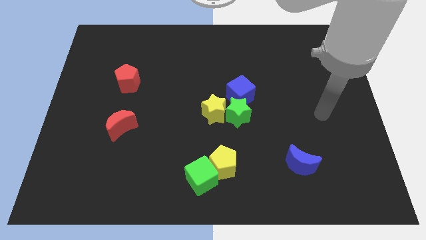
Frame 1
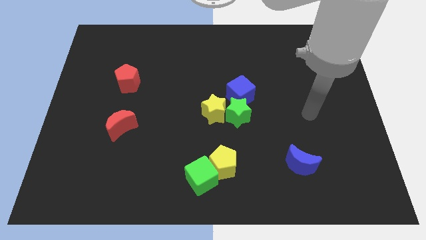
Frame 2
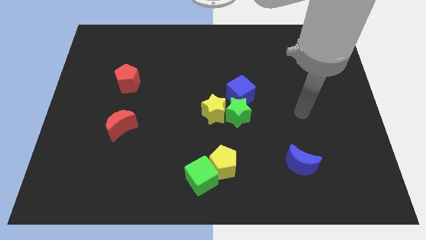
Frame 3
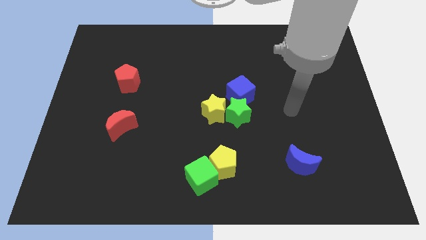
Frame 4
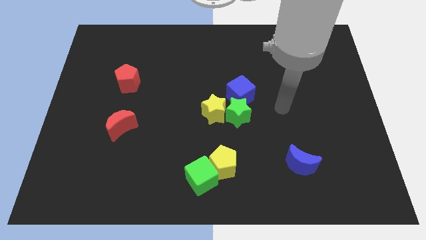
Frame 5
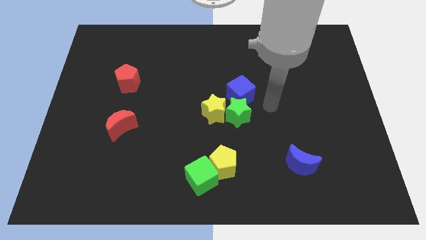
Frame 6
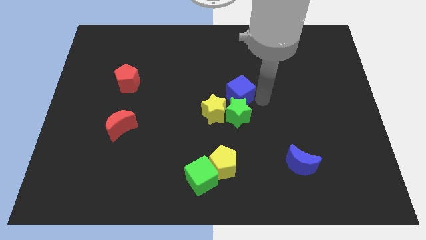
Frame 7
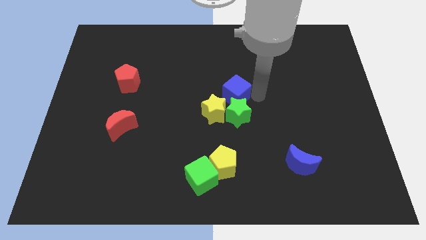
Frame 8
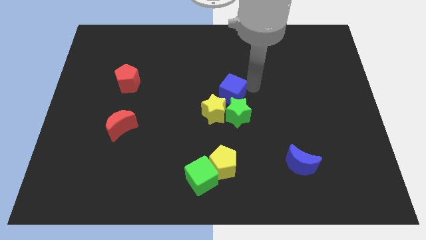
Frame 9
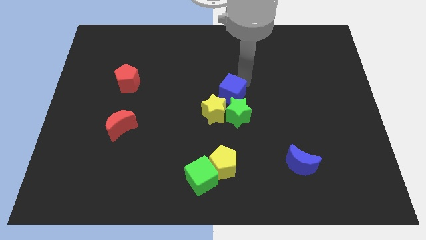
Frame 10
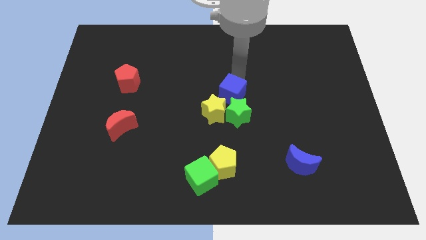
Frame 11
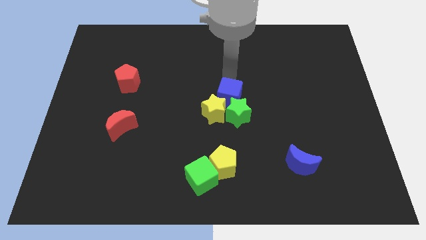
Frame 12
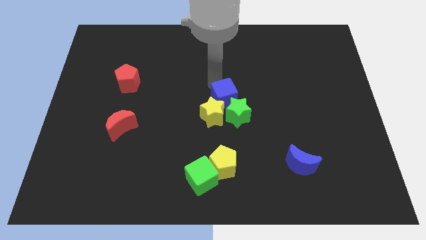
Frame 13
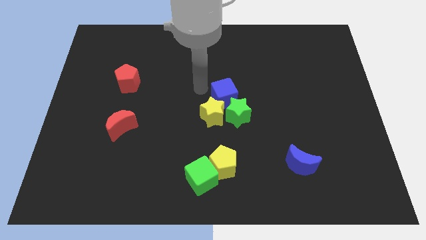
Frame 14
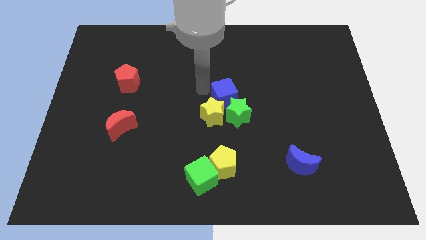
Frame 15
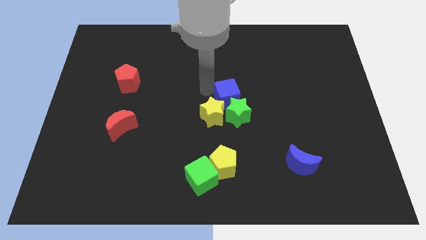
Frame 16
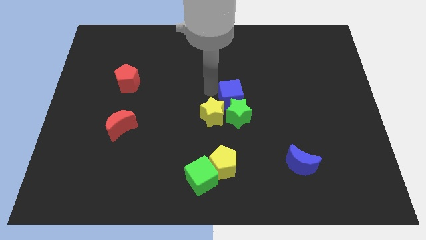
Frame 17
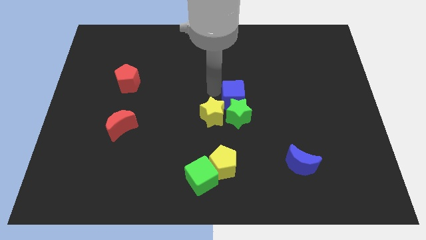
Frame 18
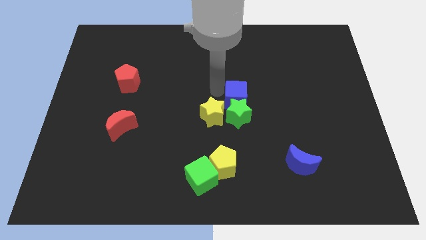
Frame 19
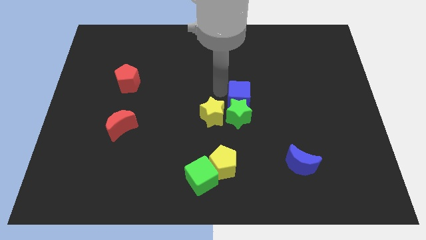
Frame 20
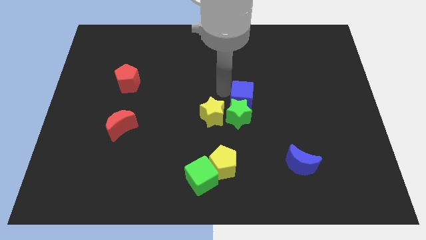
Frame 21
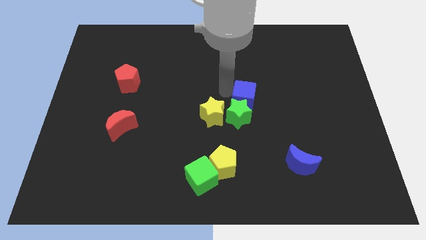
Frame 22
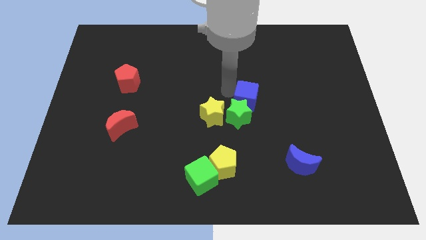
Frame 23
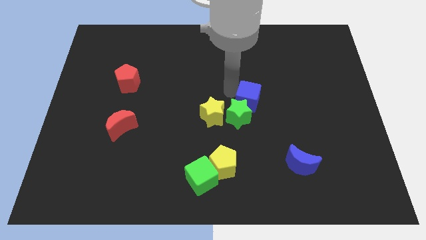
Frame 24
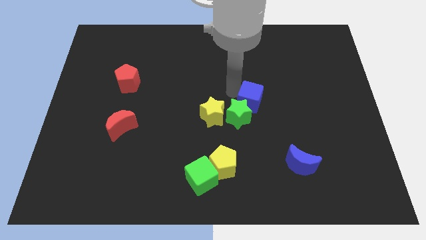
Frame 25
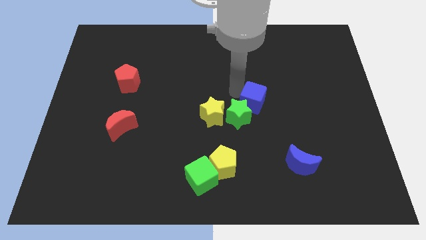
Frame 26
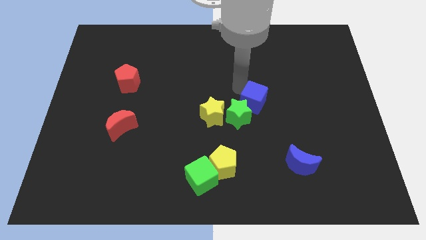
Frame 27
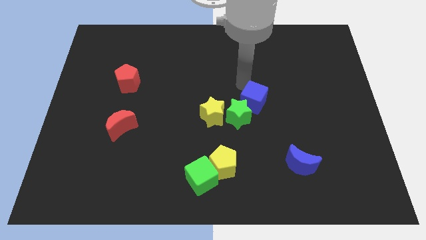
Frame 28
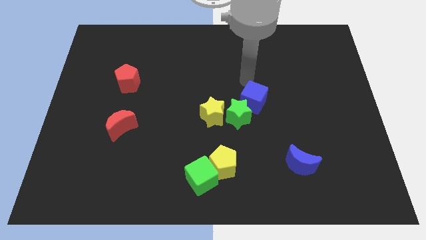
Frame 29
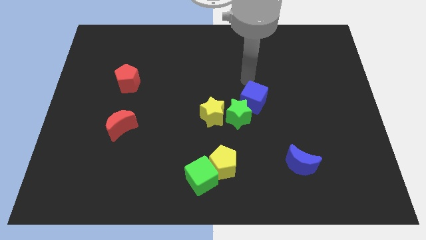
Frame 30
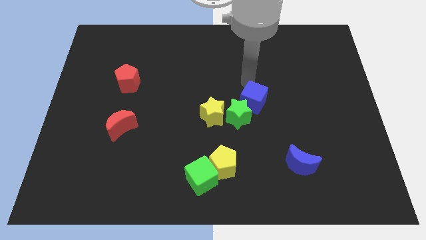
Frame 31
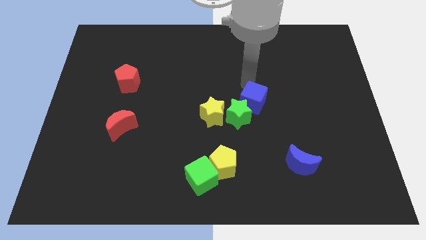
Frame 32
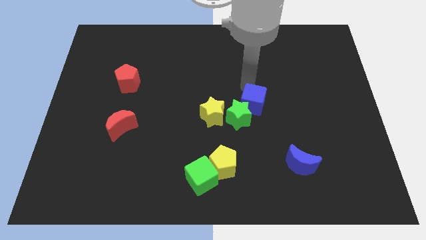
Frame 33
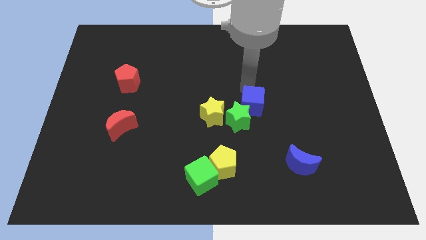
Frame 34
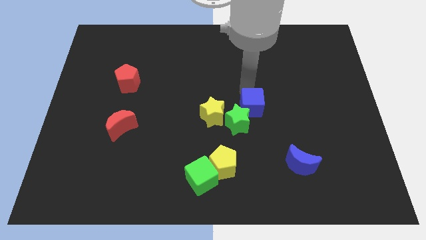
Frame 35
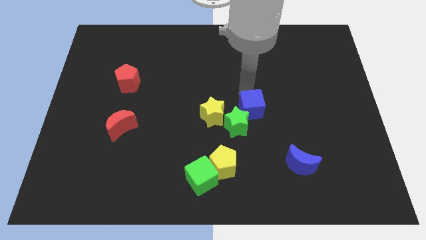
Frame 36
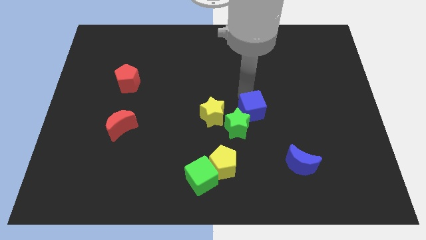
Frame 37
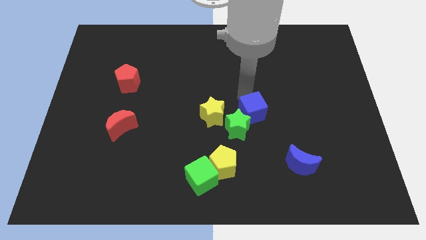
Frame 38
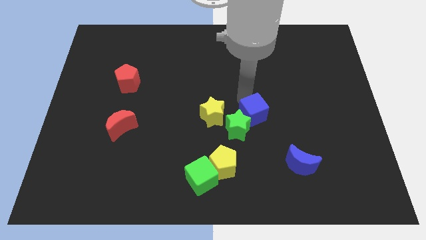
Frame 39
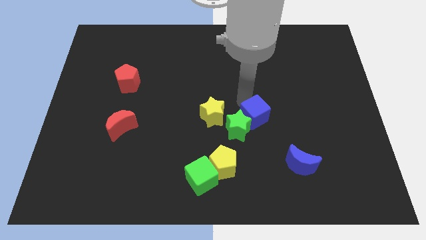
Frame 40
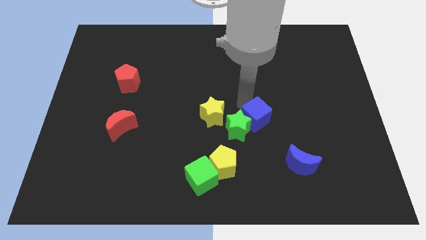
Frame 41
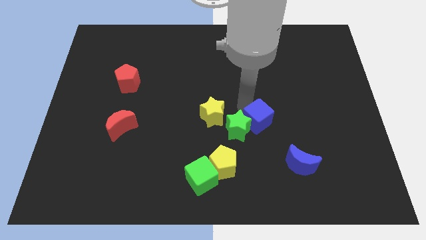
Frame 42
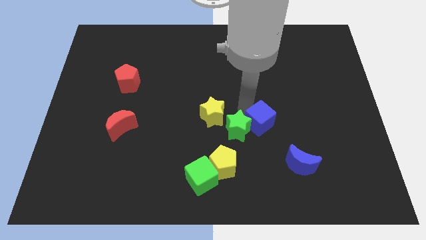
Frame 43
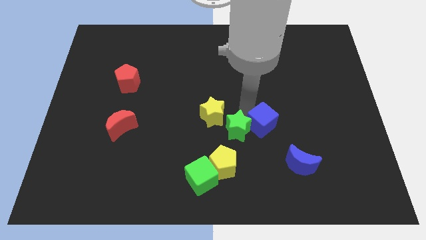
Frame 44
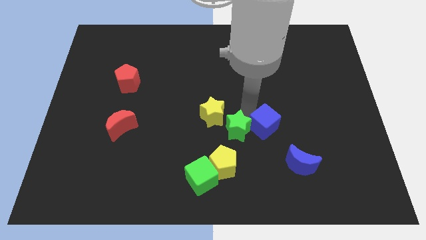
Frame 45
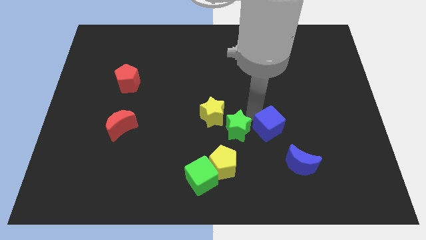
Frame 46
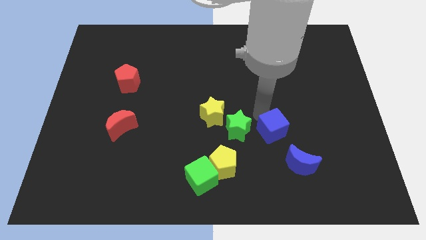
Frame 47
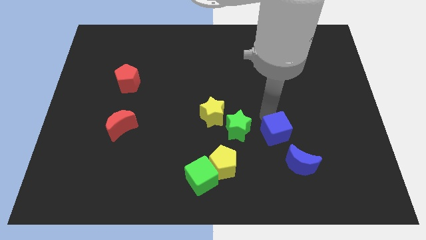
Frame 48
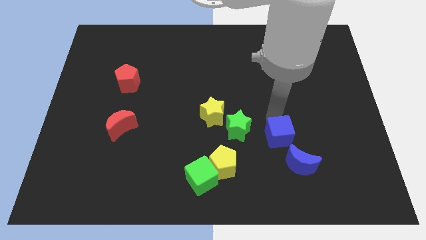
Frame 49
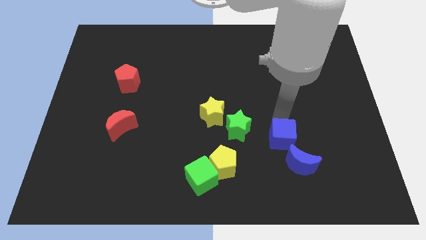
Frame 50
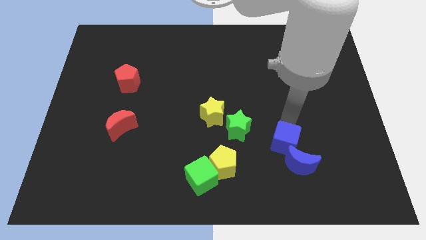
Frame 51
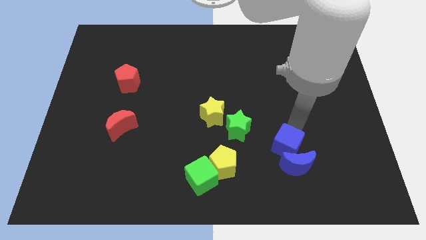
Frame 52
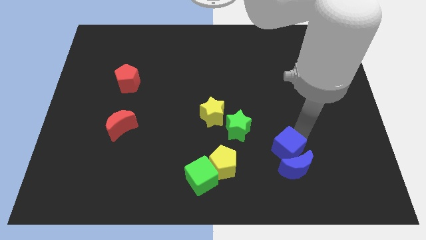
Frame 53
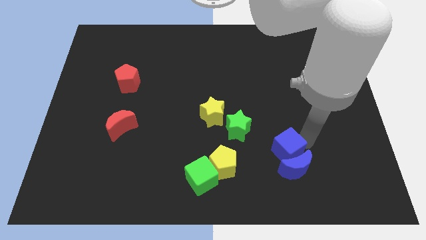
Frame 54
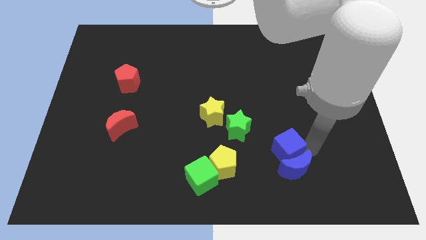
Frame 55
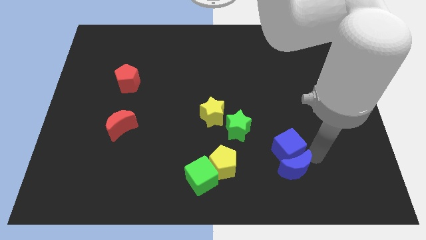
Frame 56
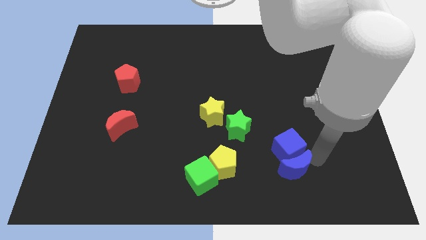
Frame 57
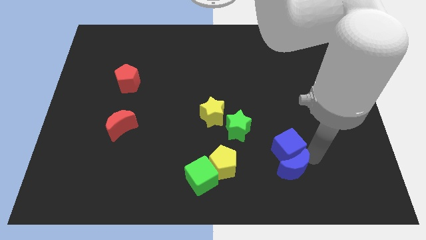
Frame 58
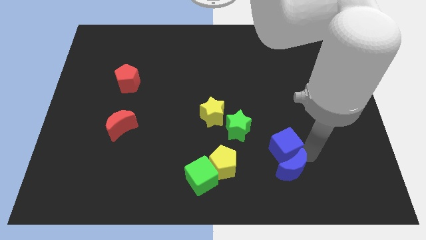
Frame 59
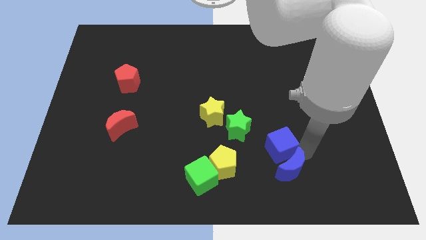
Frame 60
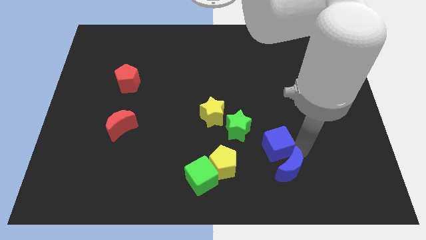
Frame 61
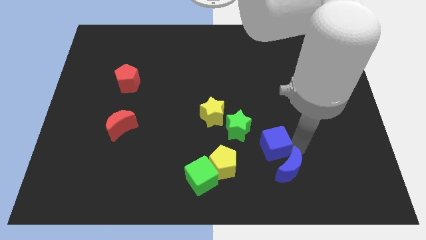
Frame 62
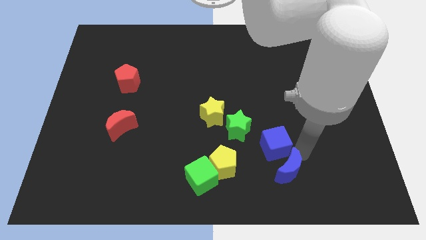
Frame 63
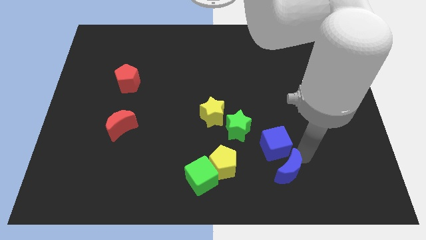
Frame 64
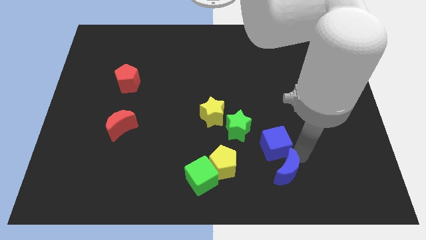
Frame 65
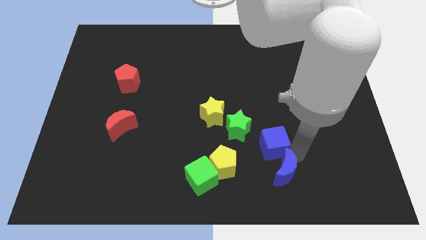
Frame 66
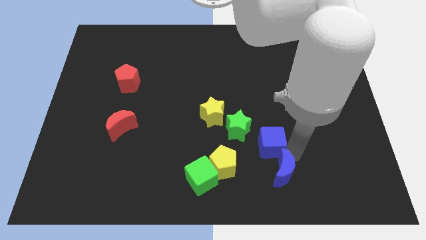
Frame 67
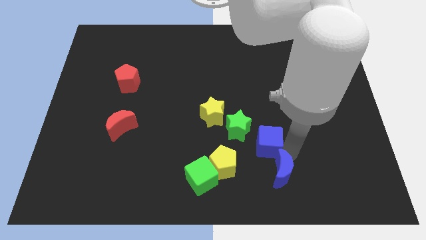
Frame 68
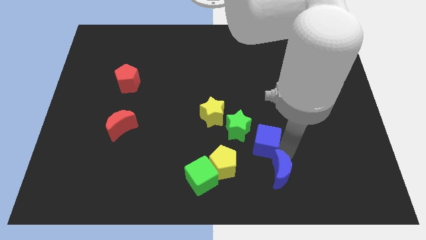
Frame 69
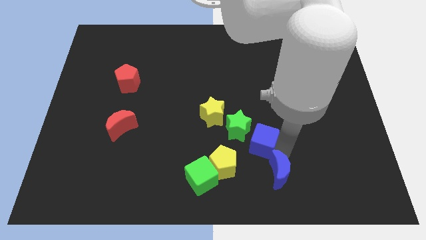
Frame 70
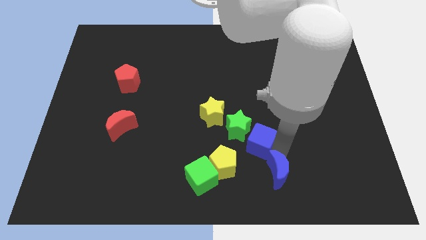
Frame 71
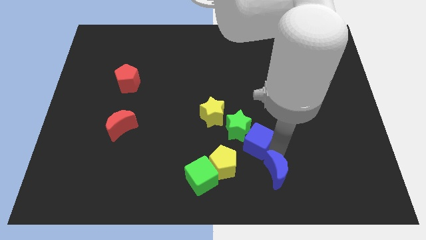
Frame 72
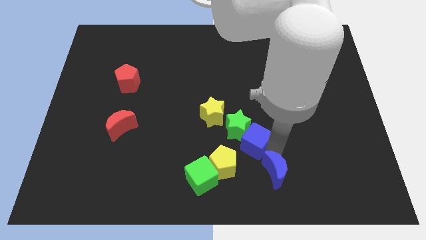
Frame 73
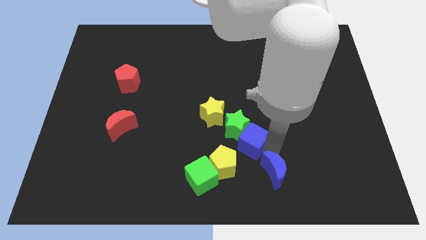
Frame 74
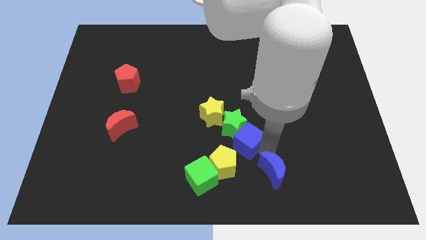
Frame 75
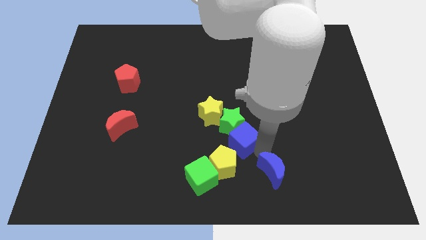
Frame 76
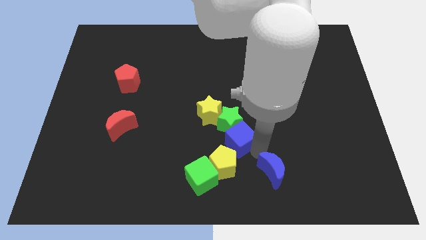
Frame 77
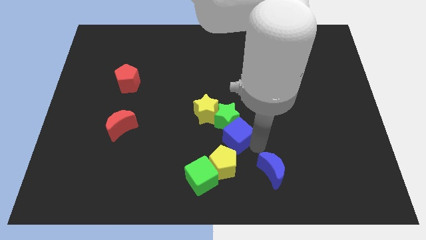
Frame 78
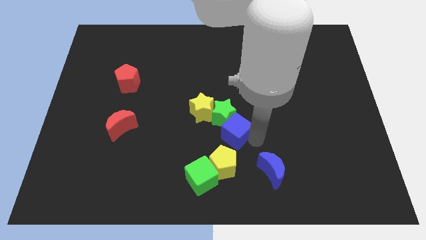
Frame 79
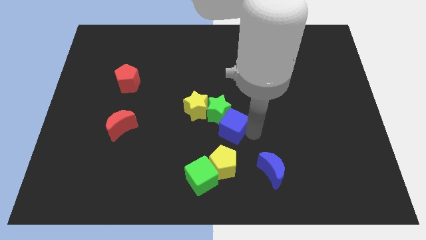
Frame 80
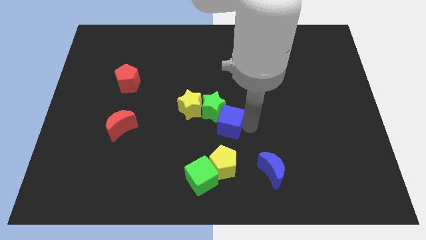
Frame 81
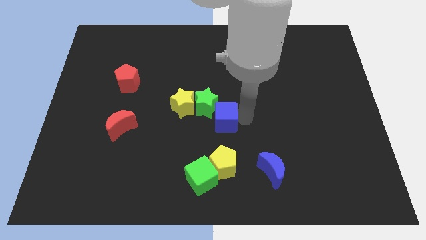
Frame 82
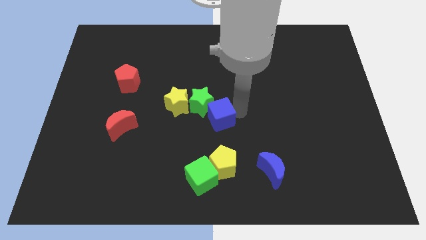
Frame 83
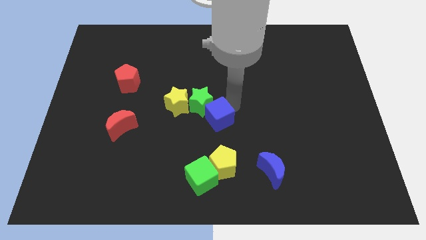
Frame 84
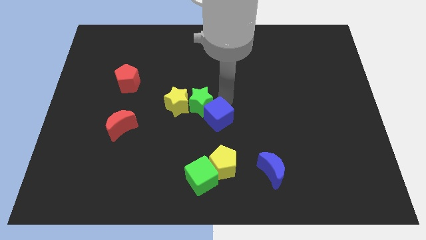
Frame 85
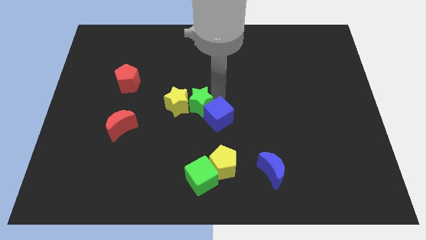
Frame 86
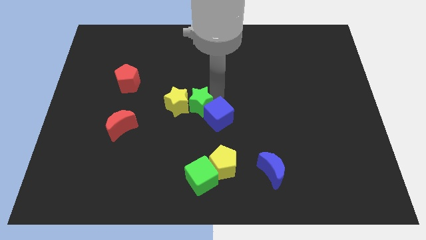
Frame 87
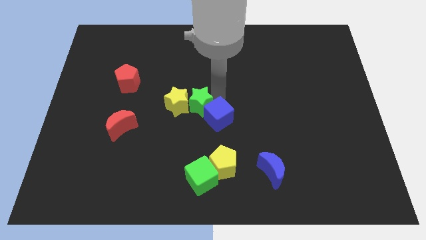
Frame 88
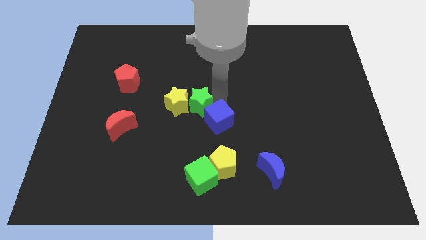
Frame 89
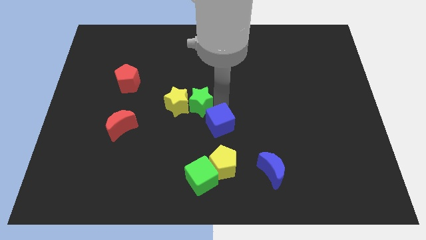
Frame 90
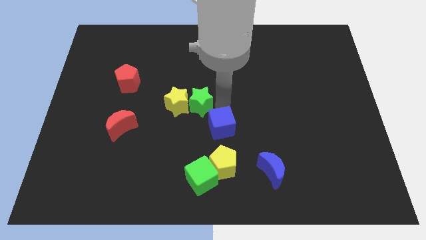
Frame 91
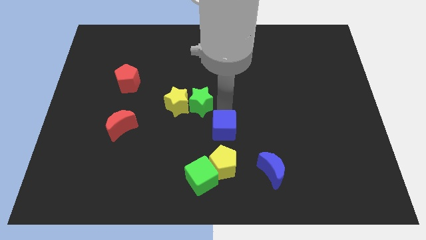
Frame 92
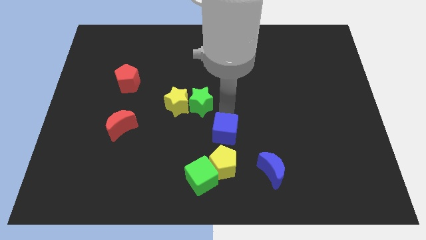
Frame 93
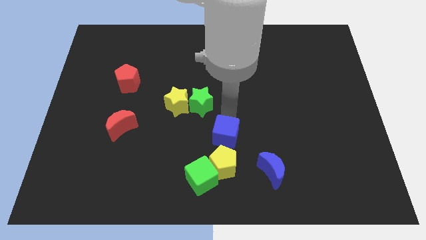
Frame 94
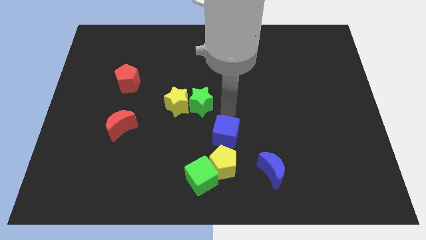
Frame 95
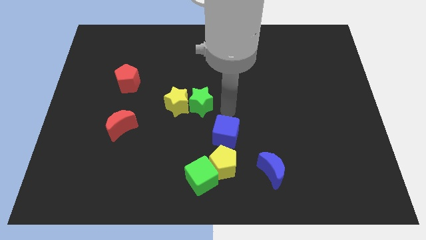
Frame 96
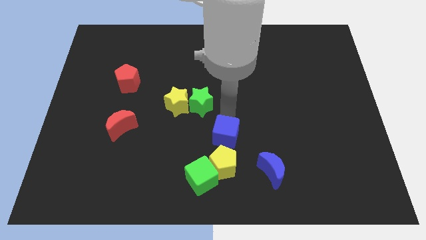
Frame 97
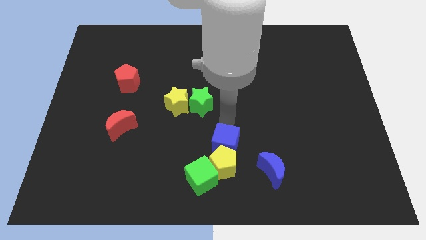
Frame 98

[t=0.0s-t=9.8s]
slide the blue cube next to the yellow pentagon
